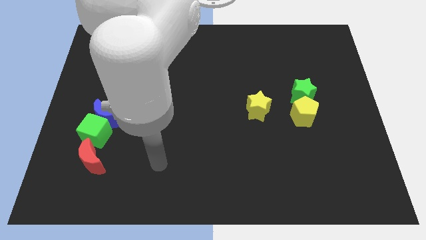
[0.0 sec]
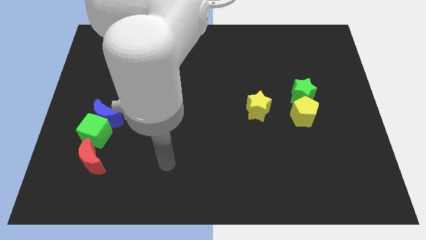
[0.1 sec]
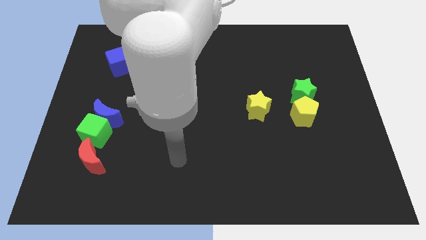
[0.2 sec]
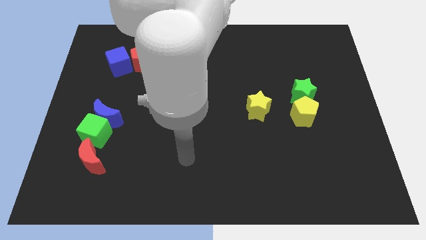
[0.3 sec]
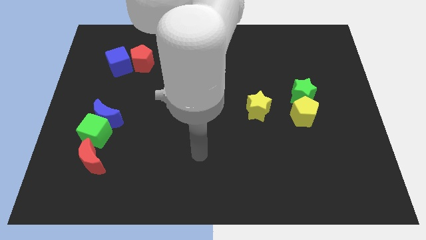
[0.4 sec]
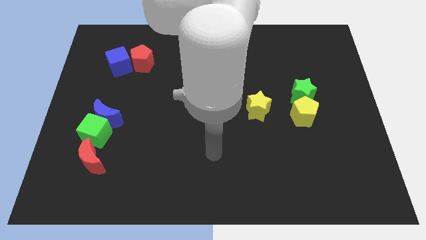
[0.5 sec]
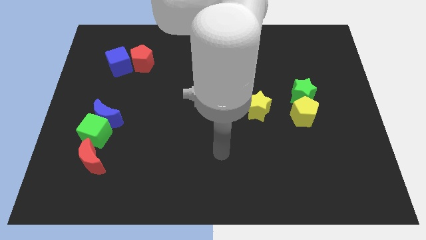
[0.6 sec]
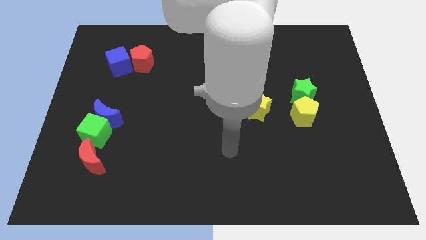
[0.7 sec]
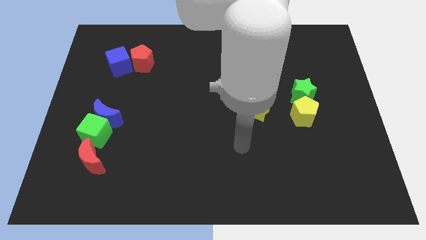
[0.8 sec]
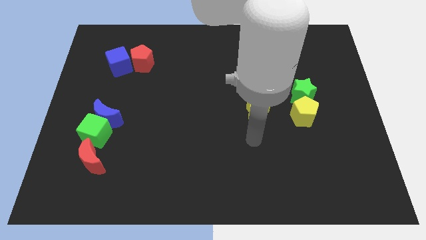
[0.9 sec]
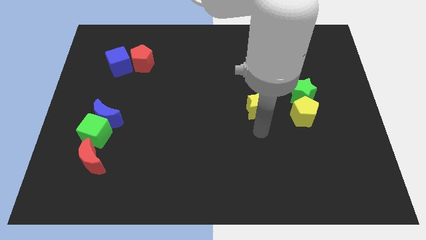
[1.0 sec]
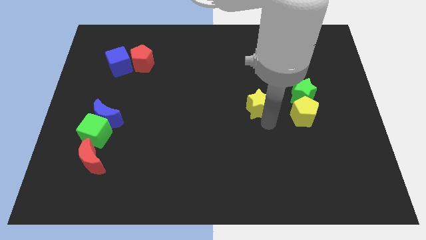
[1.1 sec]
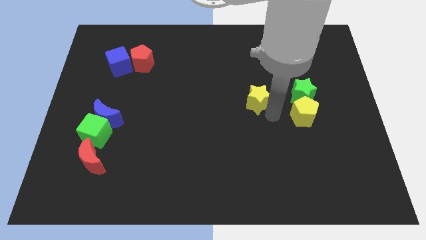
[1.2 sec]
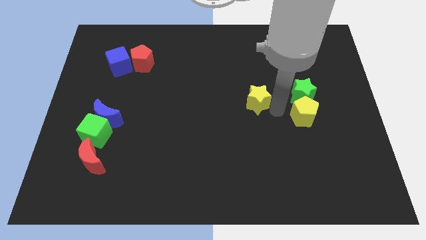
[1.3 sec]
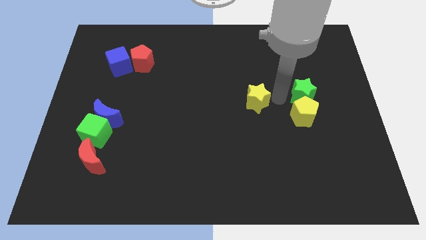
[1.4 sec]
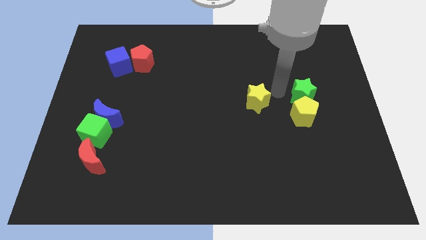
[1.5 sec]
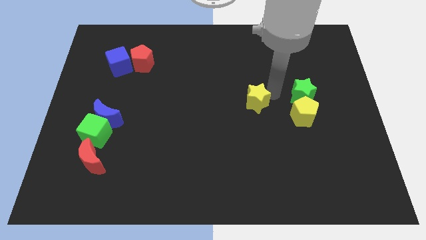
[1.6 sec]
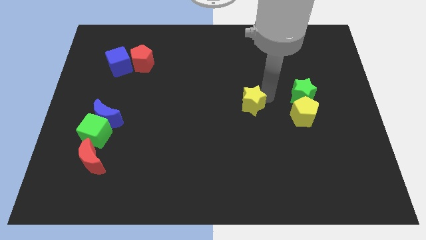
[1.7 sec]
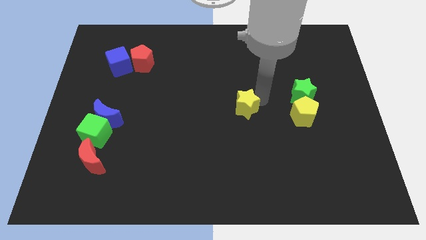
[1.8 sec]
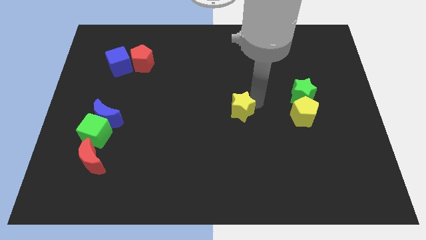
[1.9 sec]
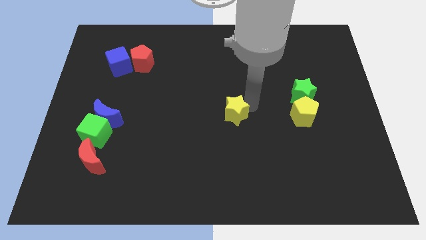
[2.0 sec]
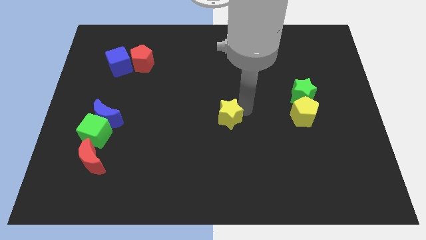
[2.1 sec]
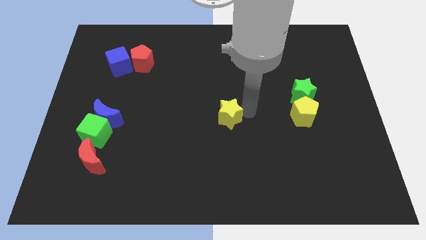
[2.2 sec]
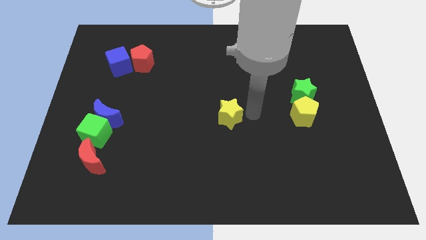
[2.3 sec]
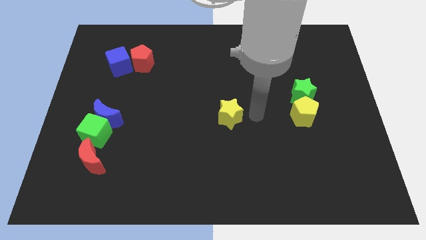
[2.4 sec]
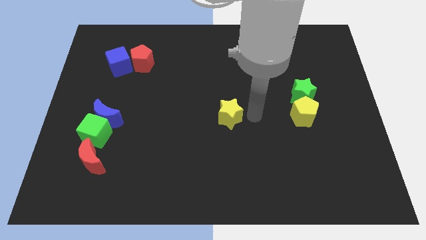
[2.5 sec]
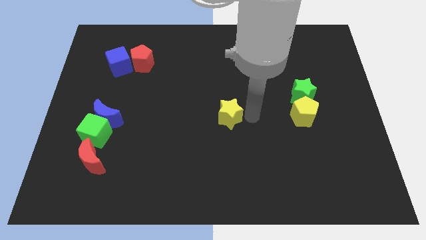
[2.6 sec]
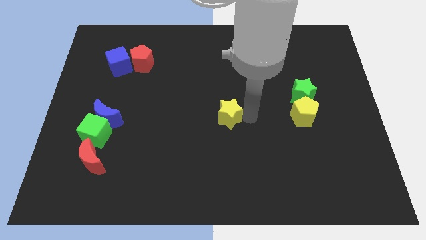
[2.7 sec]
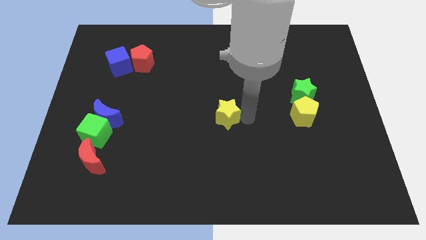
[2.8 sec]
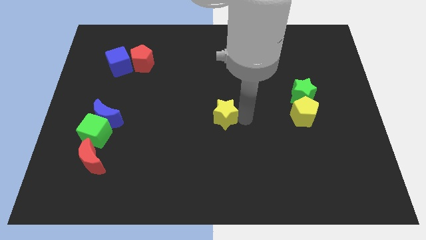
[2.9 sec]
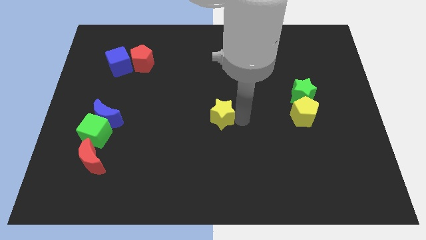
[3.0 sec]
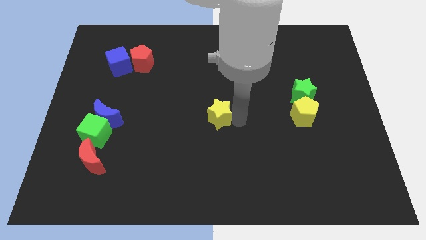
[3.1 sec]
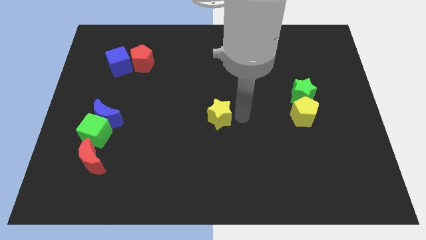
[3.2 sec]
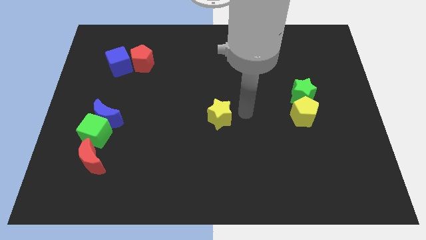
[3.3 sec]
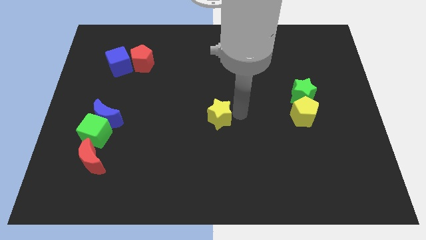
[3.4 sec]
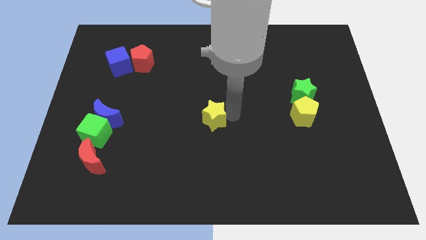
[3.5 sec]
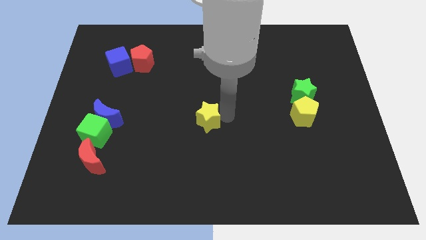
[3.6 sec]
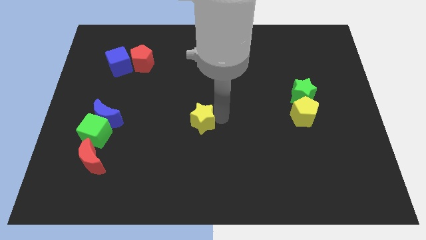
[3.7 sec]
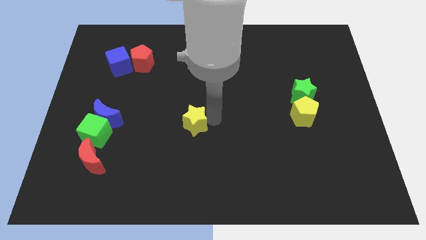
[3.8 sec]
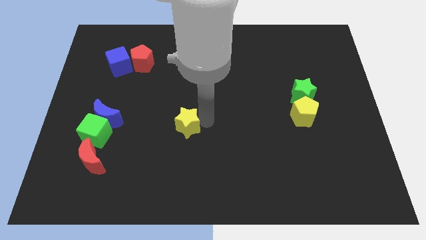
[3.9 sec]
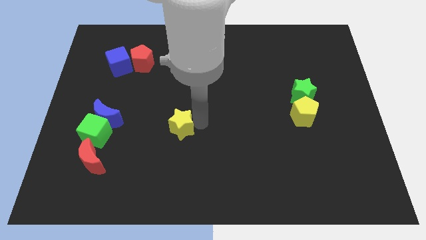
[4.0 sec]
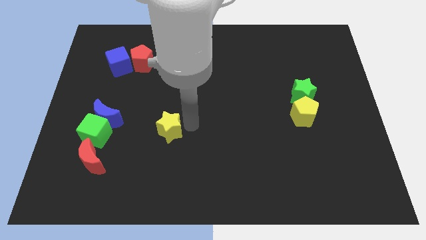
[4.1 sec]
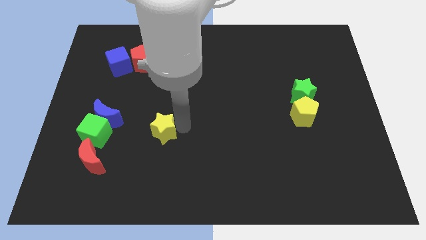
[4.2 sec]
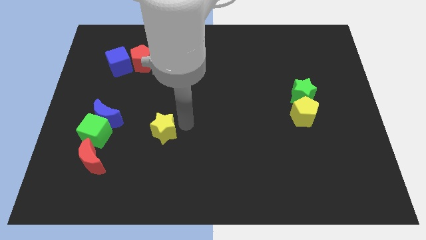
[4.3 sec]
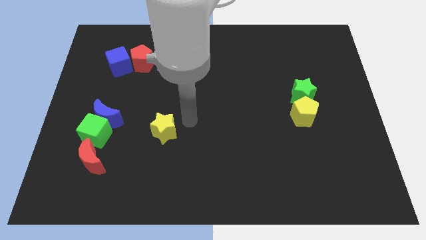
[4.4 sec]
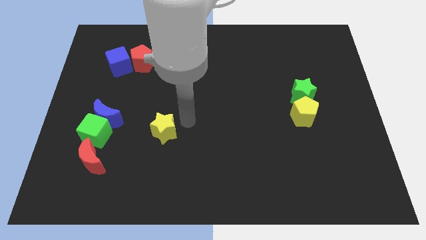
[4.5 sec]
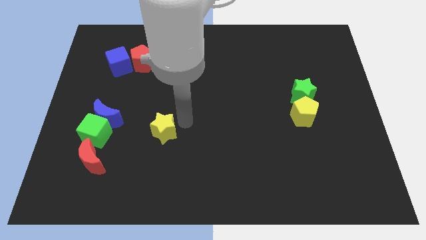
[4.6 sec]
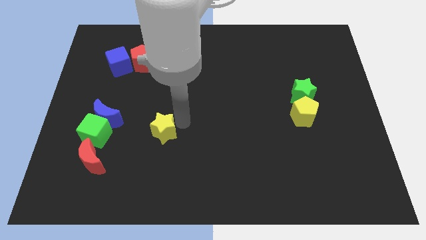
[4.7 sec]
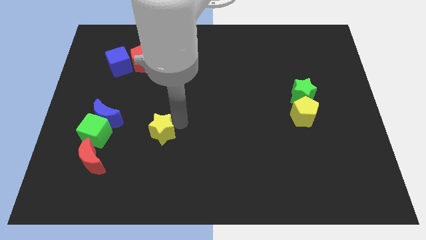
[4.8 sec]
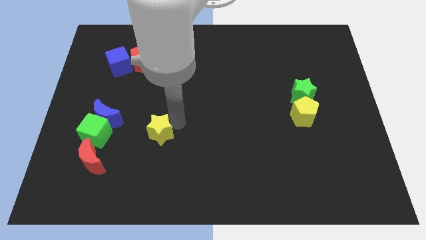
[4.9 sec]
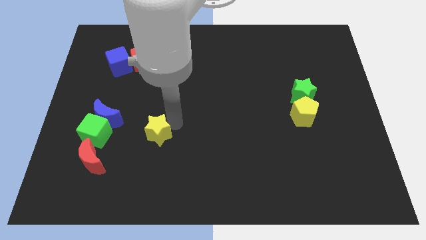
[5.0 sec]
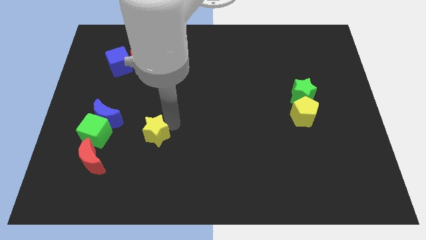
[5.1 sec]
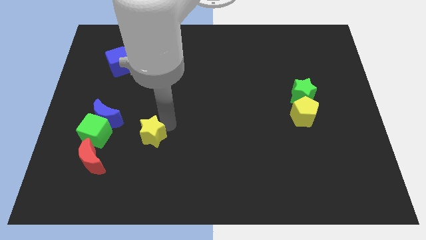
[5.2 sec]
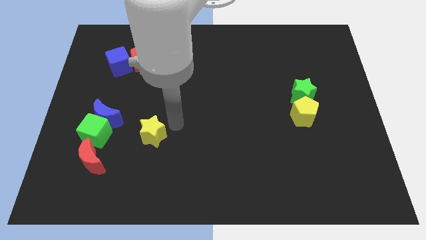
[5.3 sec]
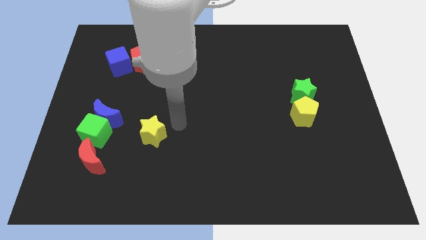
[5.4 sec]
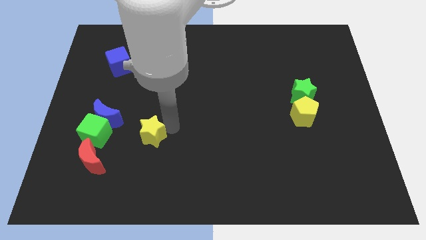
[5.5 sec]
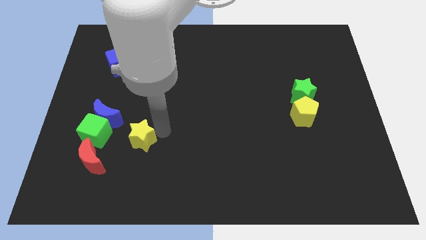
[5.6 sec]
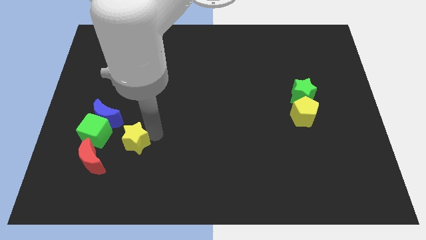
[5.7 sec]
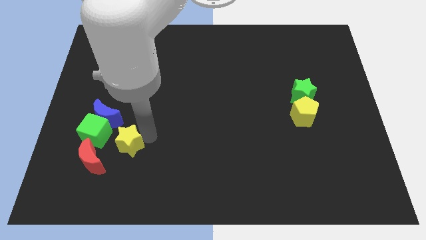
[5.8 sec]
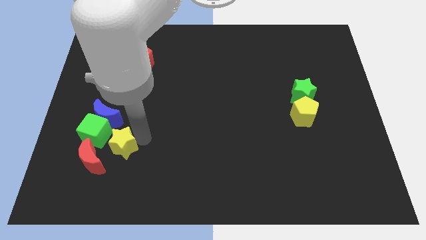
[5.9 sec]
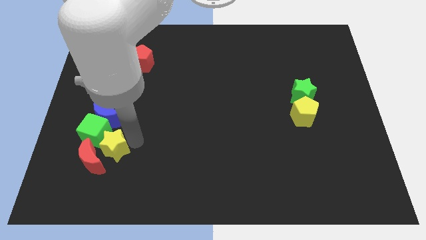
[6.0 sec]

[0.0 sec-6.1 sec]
slide the yellow star close to the red moon

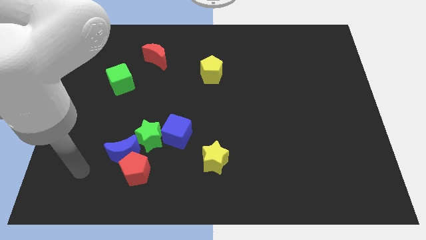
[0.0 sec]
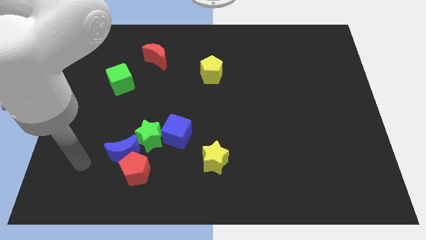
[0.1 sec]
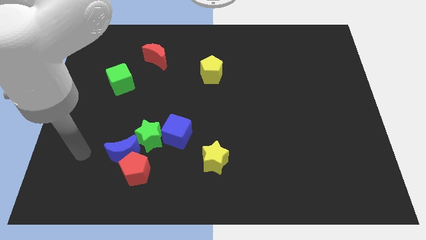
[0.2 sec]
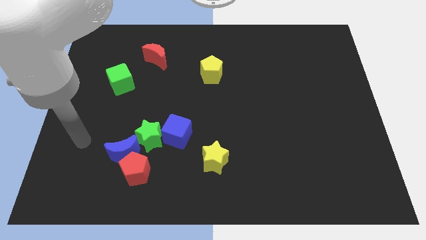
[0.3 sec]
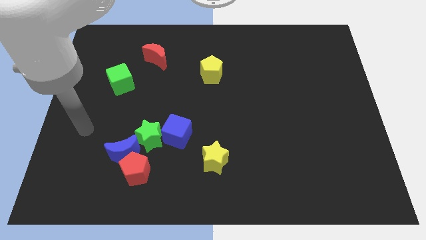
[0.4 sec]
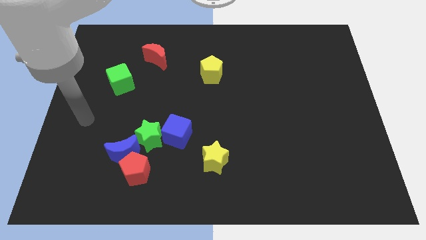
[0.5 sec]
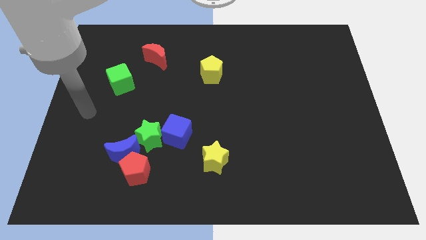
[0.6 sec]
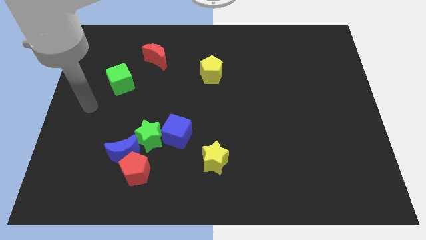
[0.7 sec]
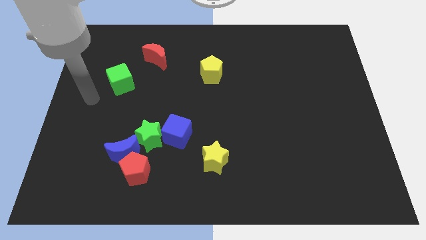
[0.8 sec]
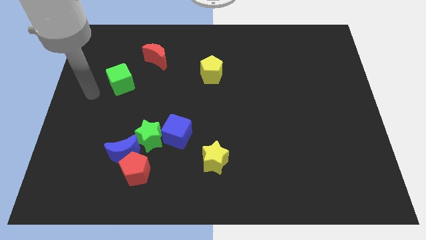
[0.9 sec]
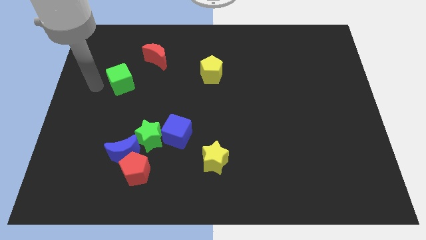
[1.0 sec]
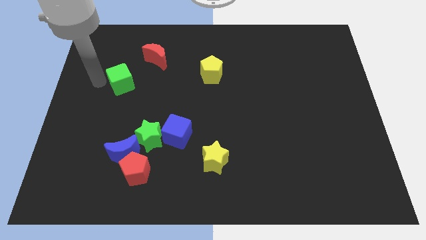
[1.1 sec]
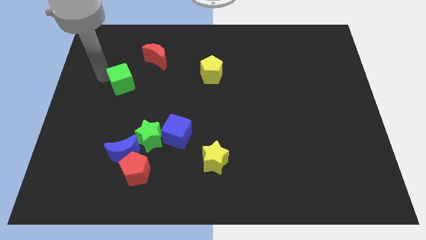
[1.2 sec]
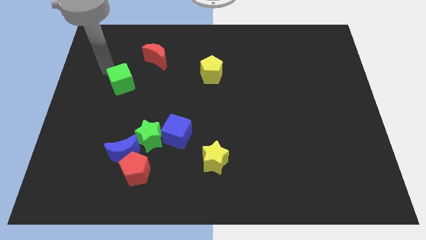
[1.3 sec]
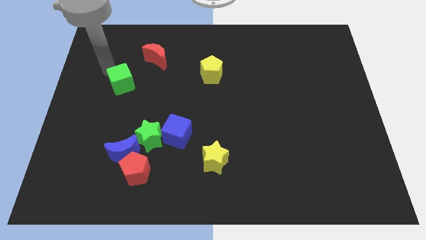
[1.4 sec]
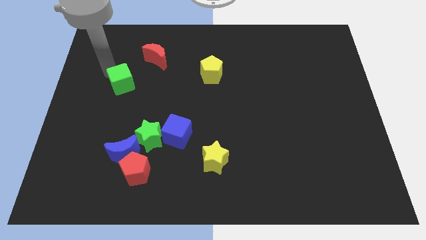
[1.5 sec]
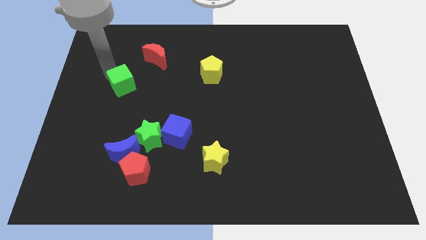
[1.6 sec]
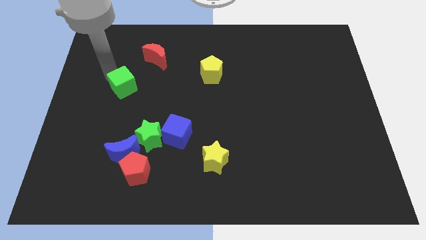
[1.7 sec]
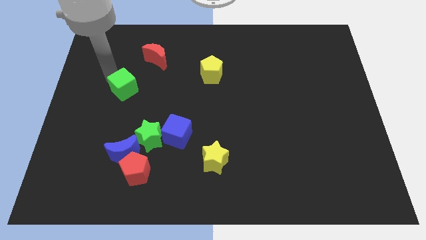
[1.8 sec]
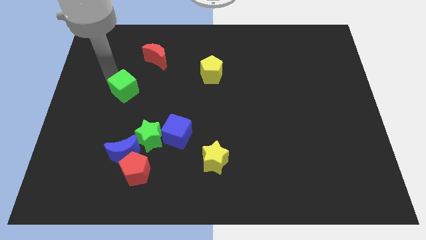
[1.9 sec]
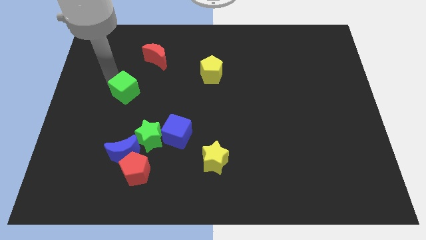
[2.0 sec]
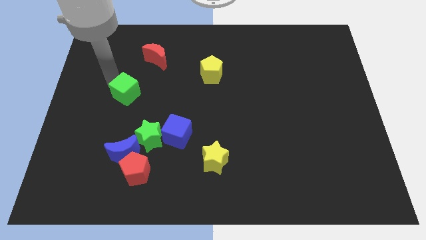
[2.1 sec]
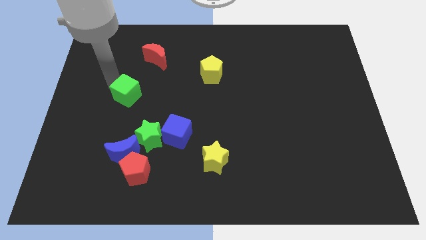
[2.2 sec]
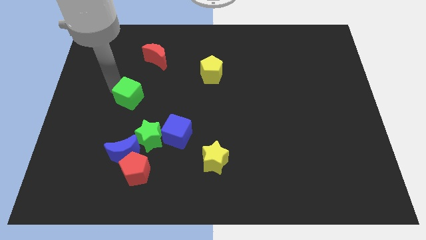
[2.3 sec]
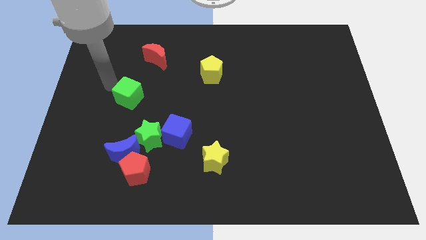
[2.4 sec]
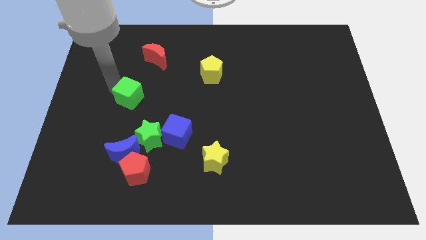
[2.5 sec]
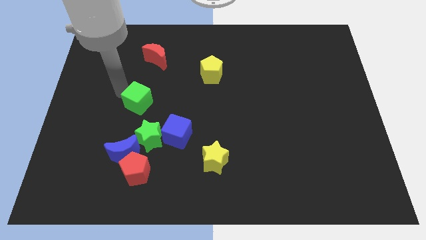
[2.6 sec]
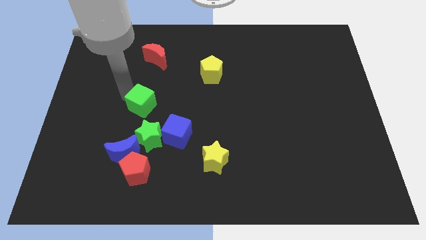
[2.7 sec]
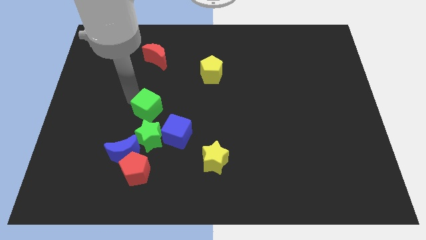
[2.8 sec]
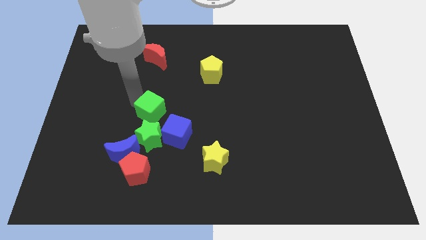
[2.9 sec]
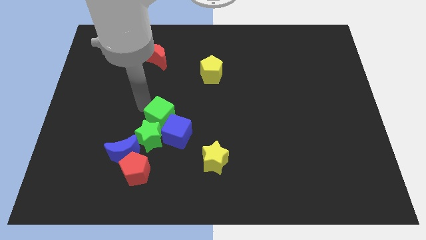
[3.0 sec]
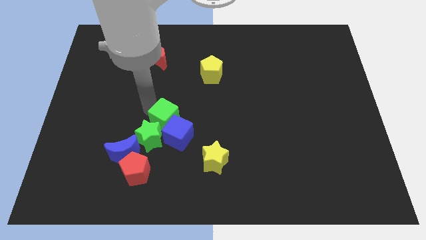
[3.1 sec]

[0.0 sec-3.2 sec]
move the green cube close to the blue cube
